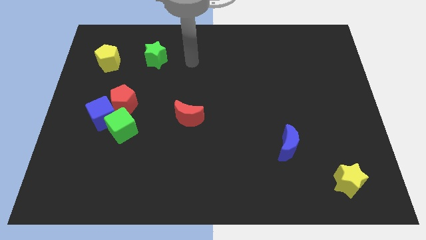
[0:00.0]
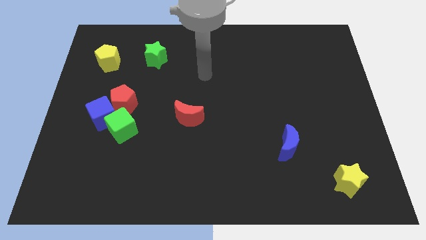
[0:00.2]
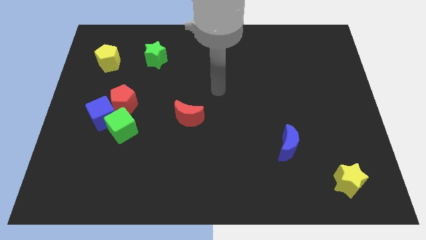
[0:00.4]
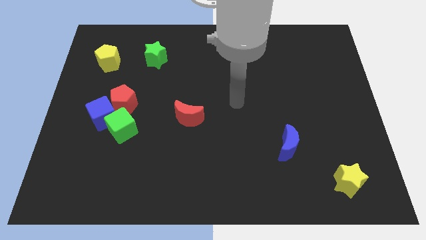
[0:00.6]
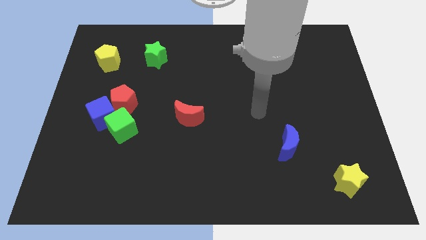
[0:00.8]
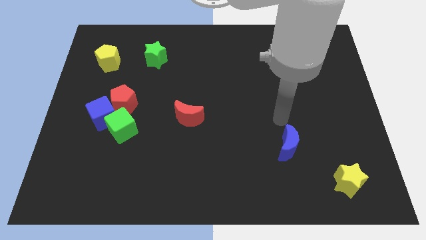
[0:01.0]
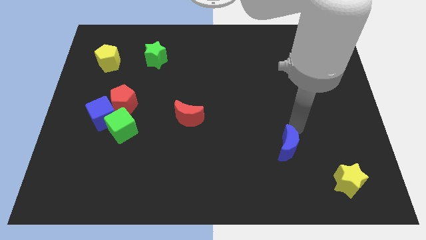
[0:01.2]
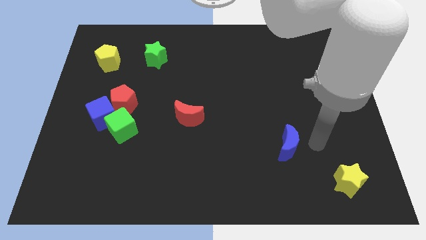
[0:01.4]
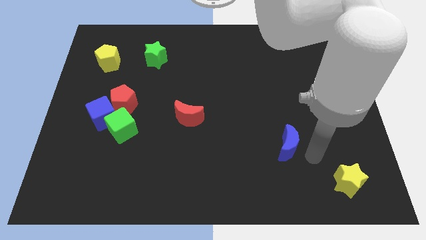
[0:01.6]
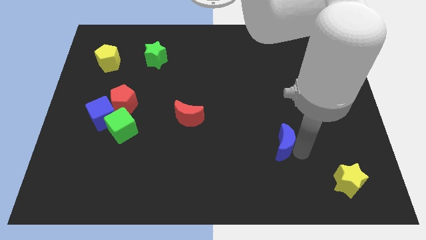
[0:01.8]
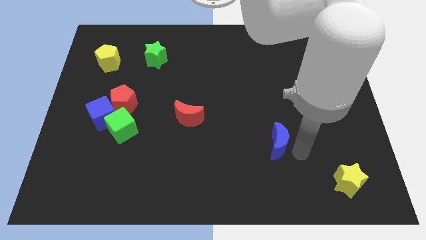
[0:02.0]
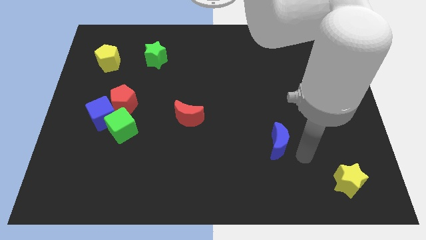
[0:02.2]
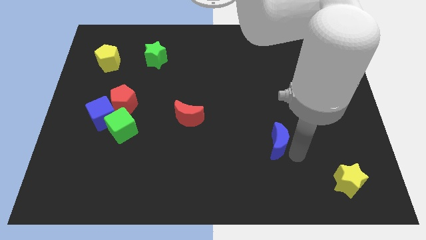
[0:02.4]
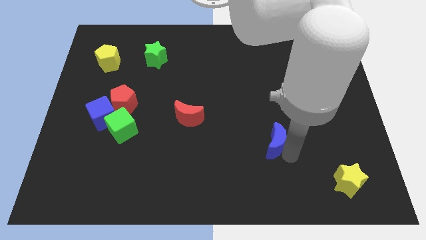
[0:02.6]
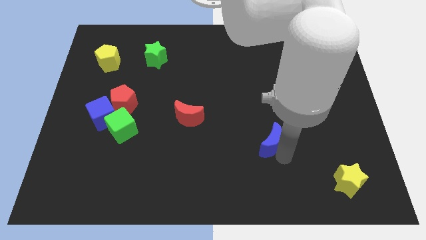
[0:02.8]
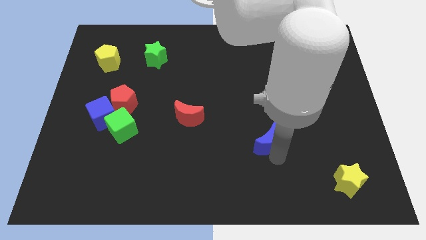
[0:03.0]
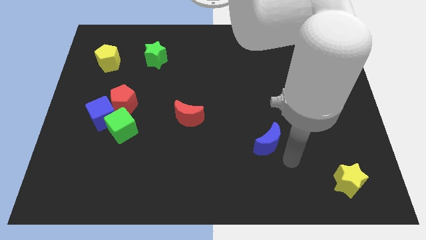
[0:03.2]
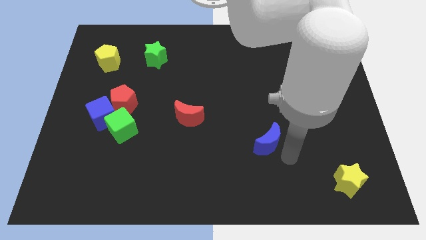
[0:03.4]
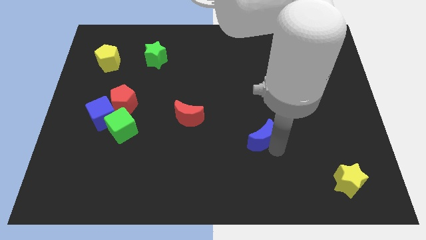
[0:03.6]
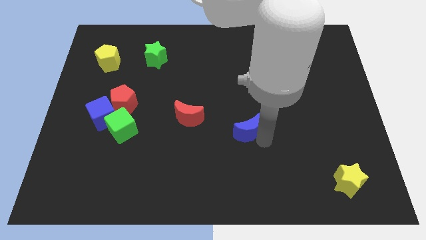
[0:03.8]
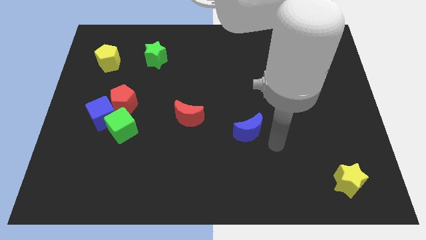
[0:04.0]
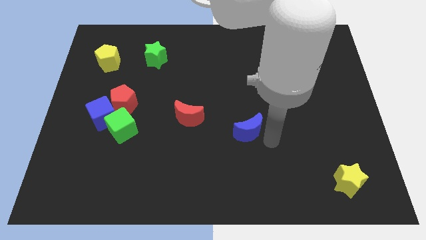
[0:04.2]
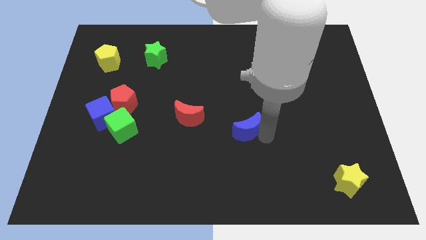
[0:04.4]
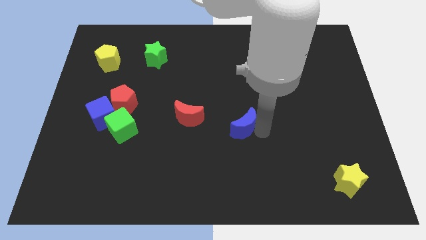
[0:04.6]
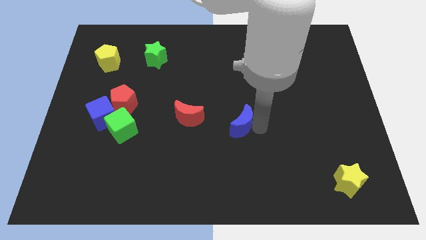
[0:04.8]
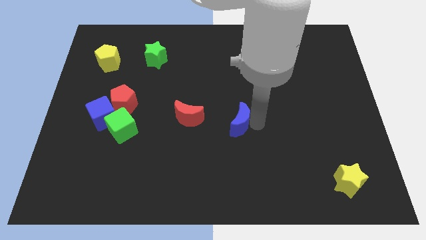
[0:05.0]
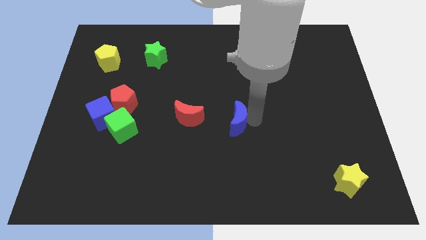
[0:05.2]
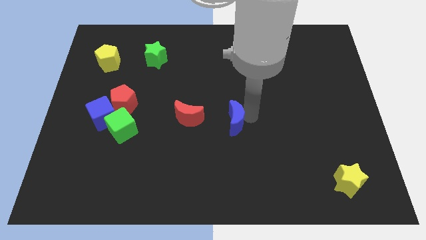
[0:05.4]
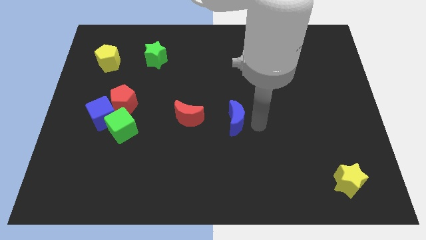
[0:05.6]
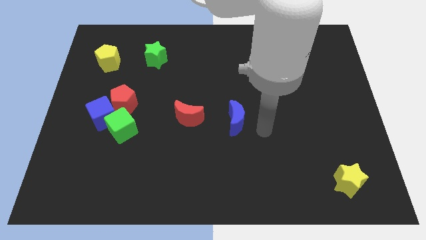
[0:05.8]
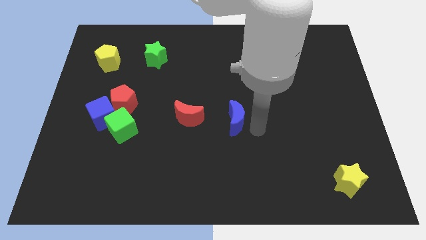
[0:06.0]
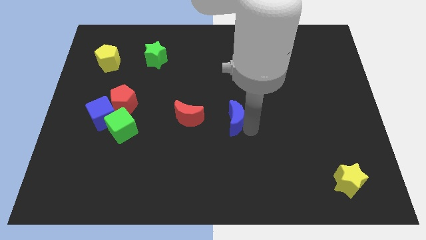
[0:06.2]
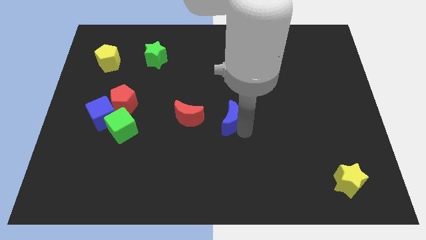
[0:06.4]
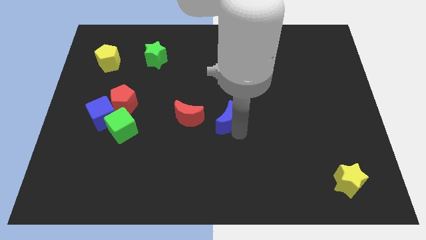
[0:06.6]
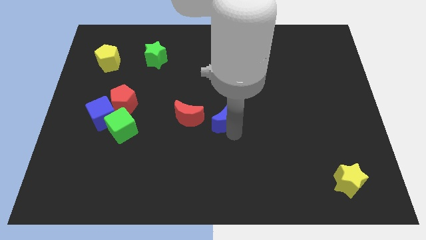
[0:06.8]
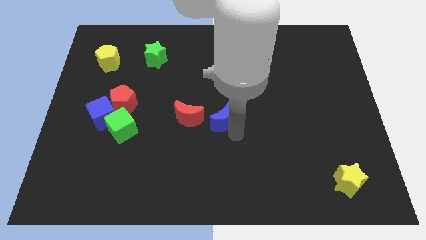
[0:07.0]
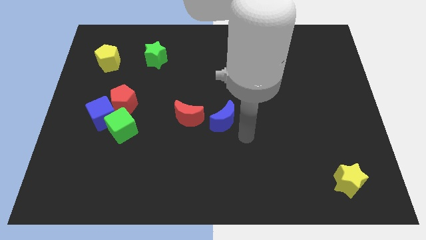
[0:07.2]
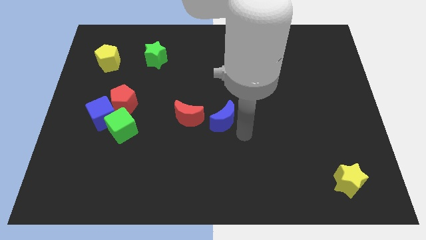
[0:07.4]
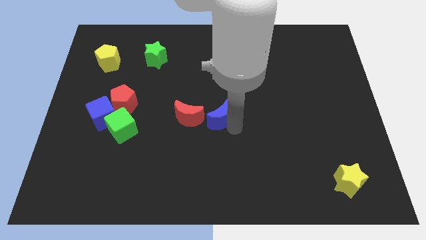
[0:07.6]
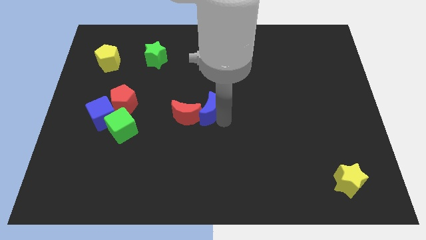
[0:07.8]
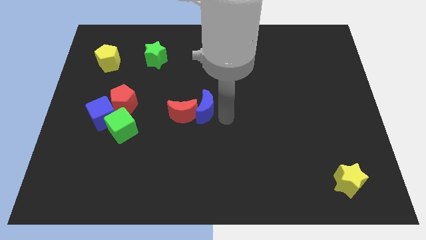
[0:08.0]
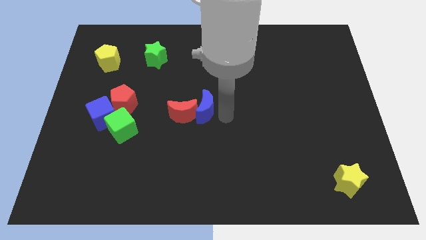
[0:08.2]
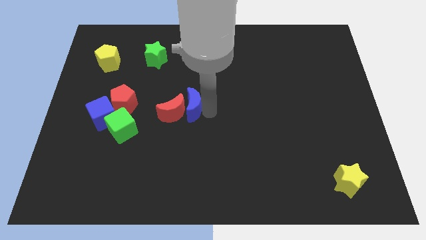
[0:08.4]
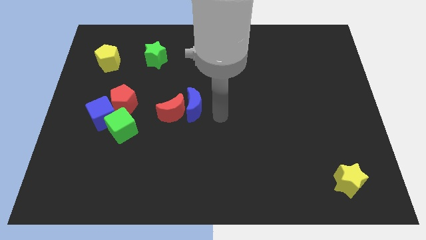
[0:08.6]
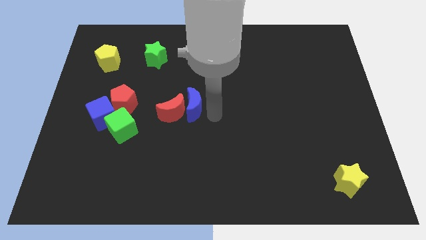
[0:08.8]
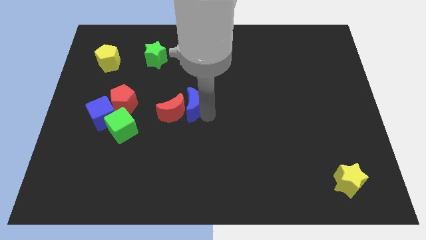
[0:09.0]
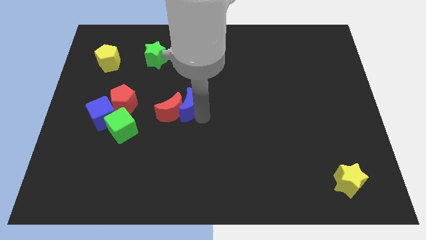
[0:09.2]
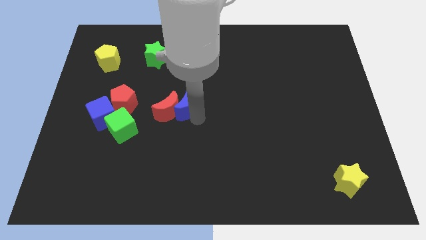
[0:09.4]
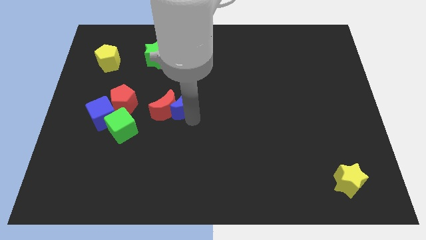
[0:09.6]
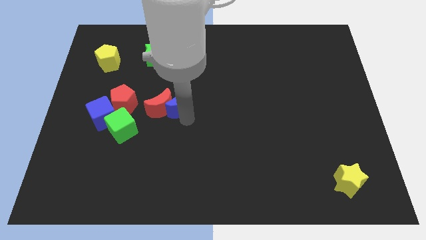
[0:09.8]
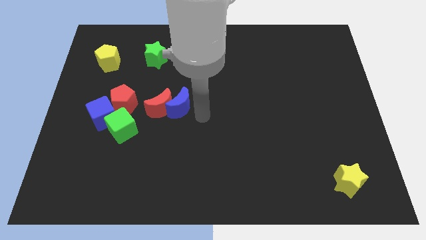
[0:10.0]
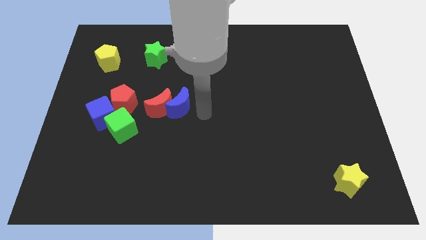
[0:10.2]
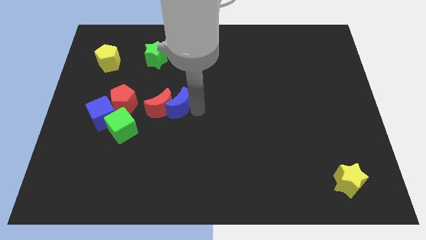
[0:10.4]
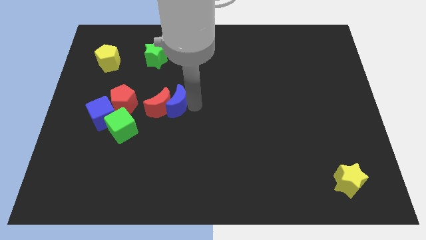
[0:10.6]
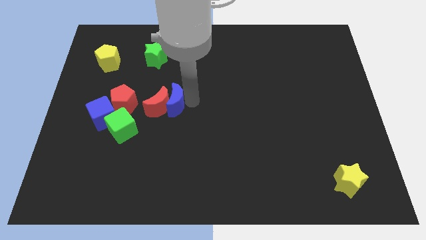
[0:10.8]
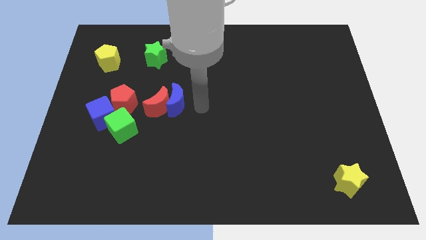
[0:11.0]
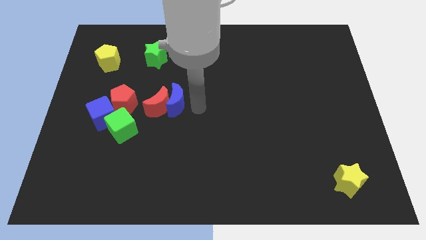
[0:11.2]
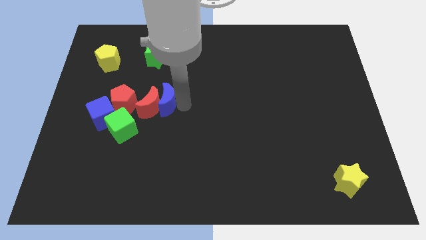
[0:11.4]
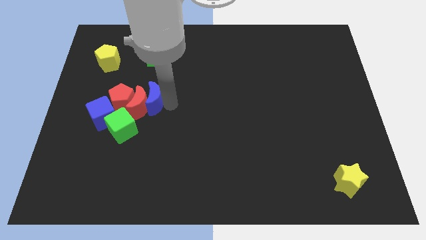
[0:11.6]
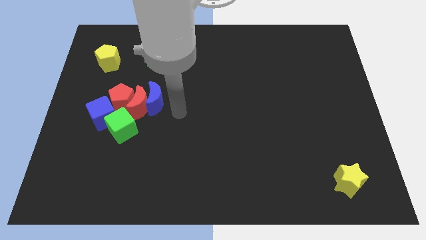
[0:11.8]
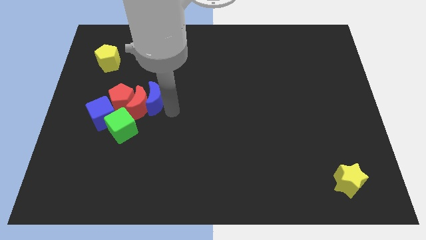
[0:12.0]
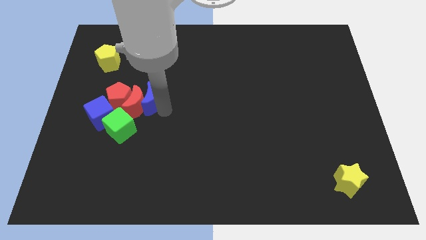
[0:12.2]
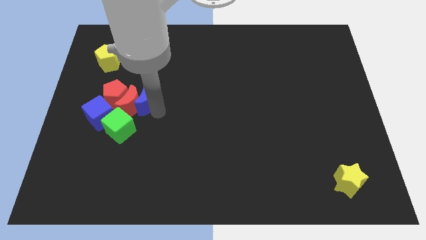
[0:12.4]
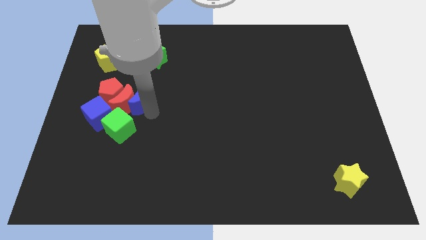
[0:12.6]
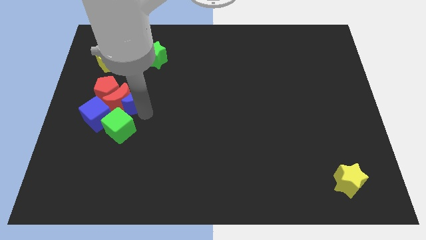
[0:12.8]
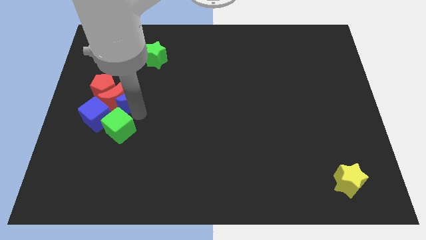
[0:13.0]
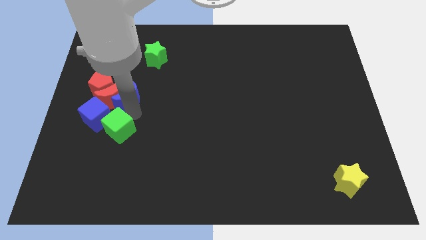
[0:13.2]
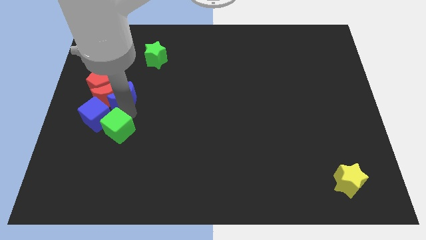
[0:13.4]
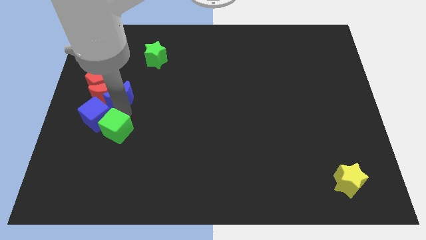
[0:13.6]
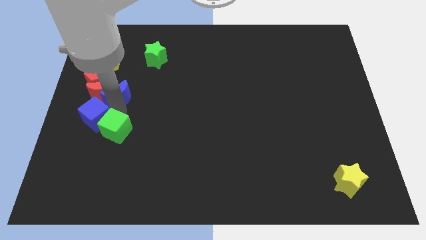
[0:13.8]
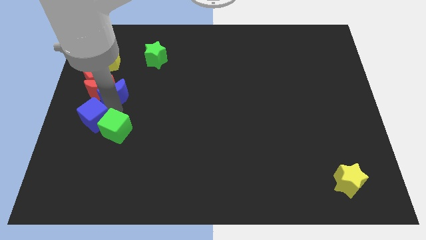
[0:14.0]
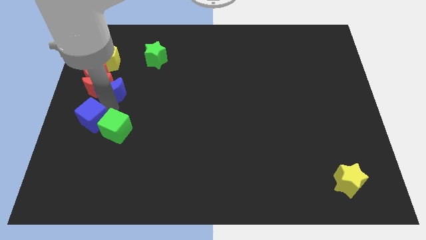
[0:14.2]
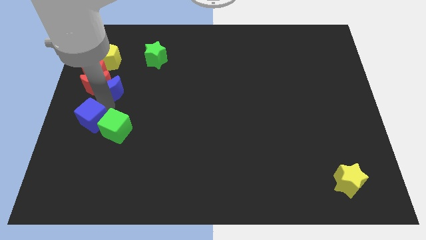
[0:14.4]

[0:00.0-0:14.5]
push the blue moon to the center left

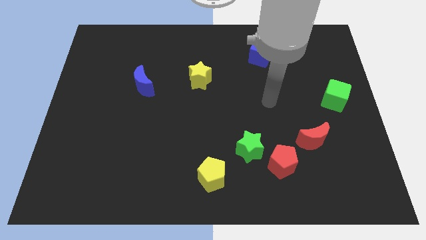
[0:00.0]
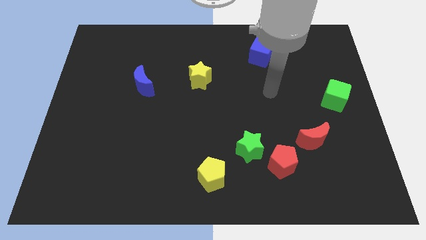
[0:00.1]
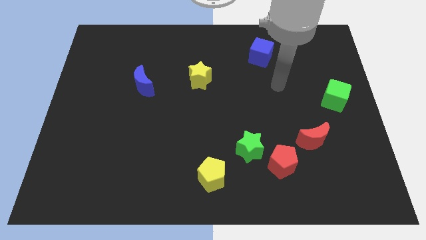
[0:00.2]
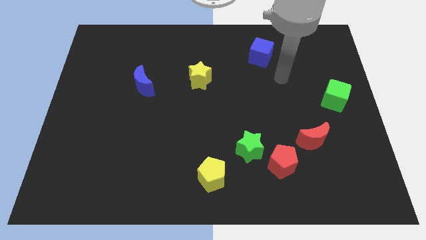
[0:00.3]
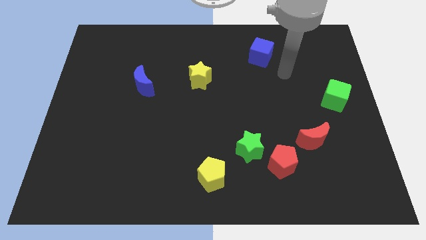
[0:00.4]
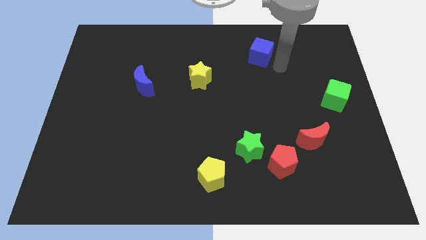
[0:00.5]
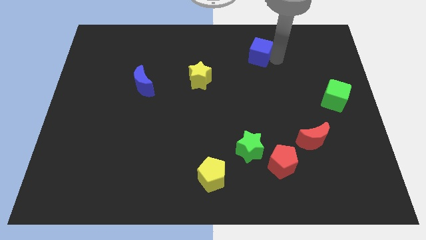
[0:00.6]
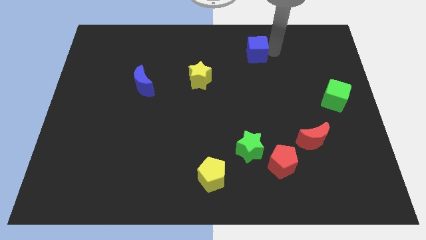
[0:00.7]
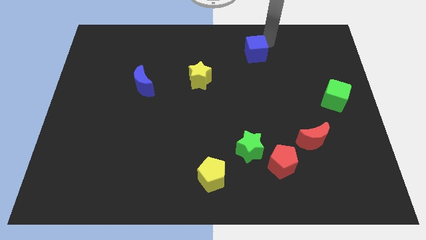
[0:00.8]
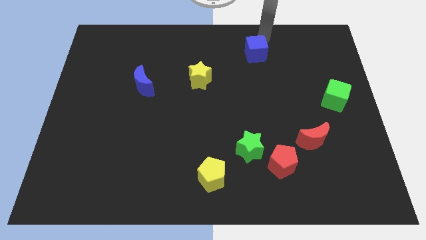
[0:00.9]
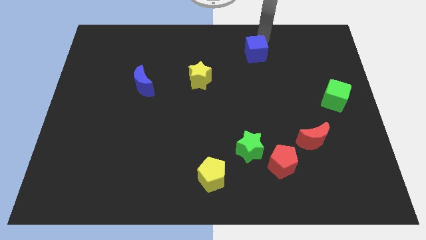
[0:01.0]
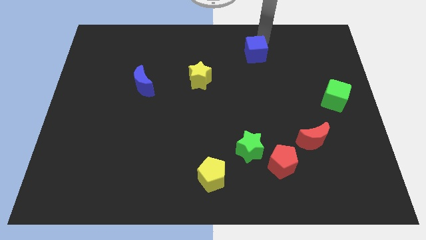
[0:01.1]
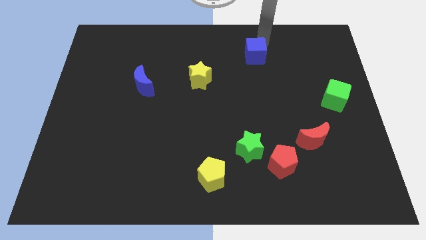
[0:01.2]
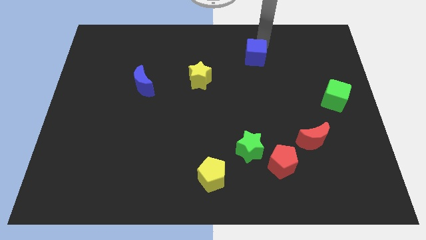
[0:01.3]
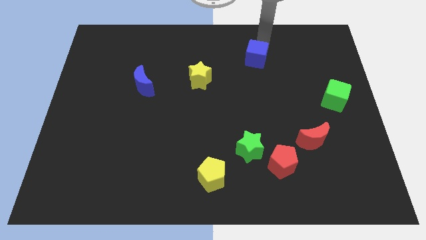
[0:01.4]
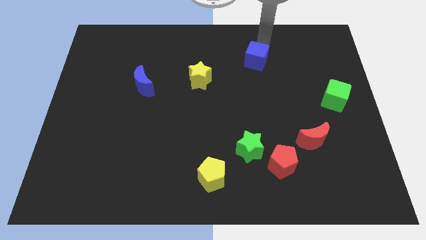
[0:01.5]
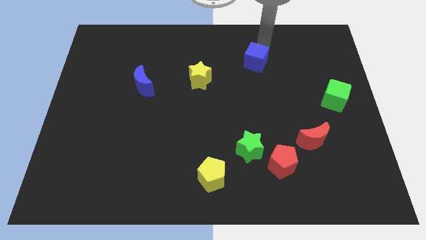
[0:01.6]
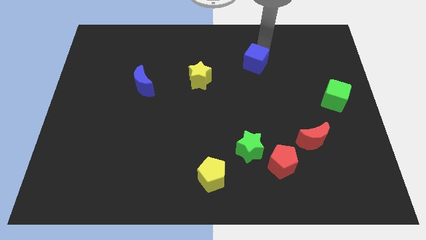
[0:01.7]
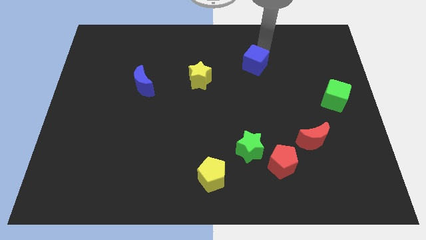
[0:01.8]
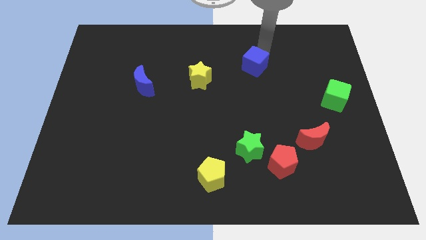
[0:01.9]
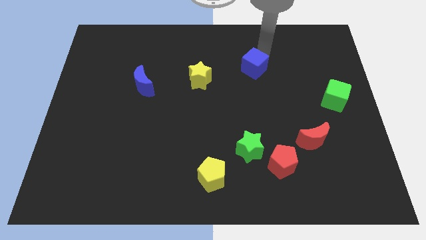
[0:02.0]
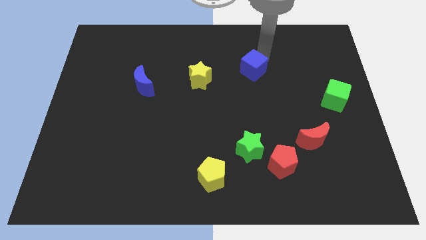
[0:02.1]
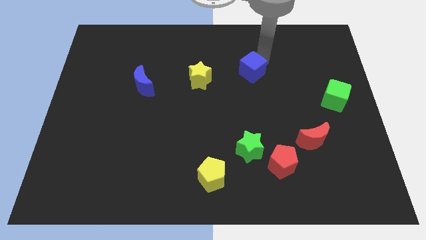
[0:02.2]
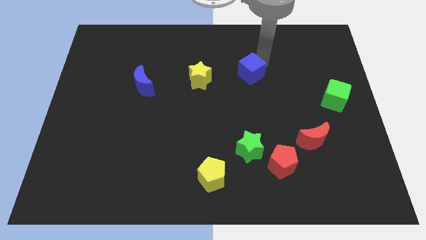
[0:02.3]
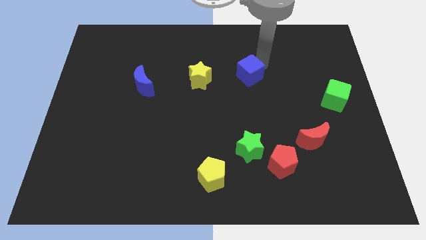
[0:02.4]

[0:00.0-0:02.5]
push the blue cube to the middle
